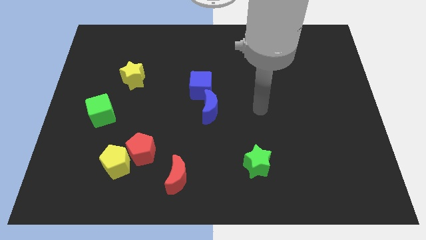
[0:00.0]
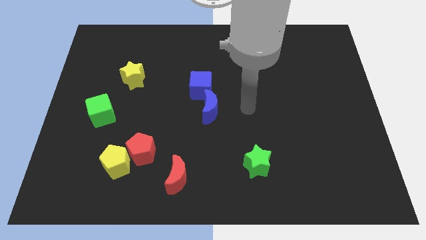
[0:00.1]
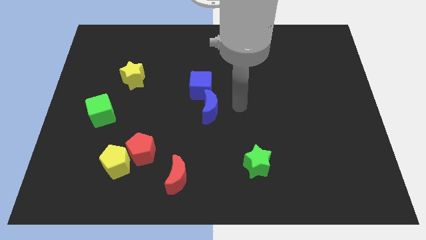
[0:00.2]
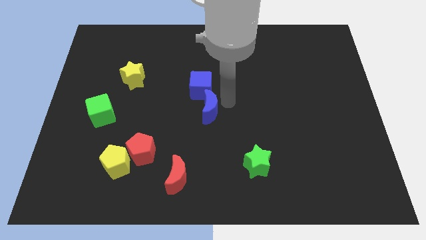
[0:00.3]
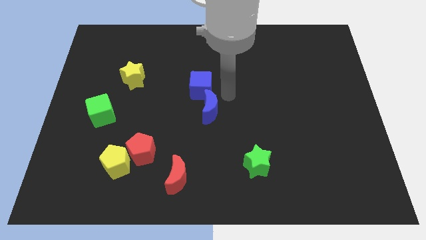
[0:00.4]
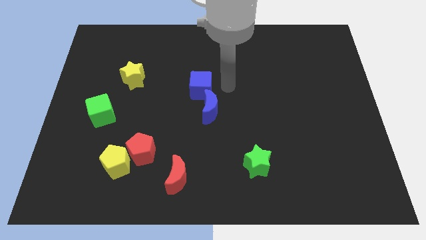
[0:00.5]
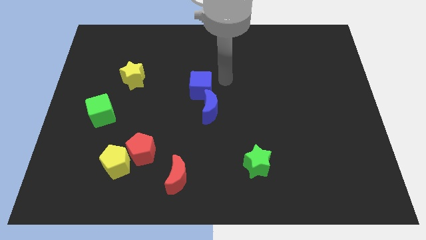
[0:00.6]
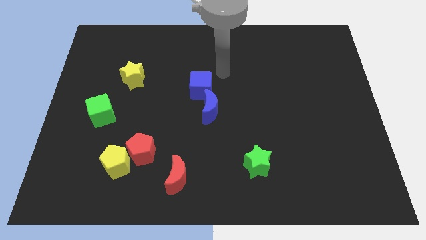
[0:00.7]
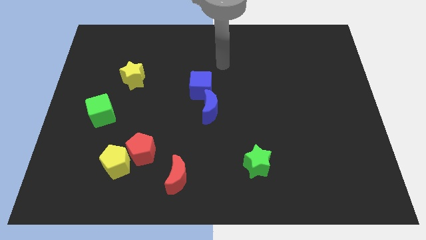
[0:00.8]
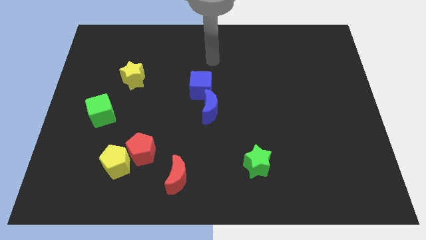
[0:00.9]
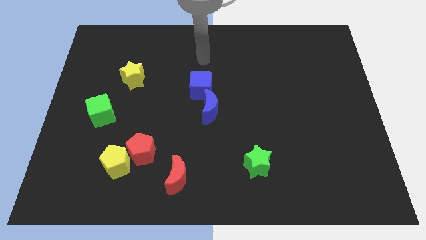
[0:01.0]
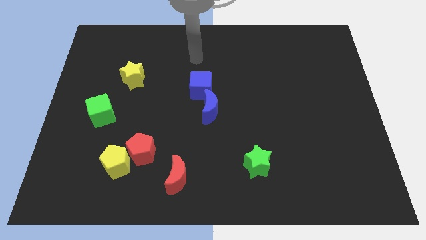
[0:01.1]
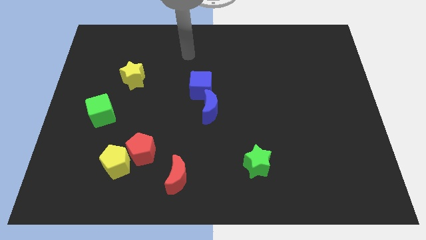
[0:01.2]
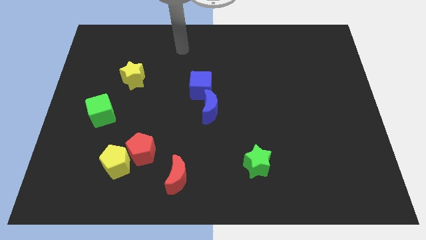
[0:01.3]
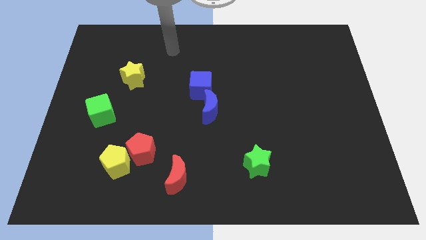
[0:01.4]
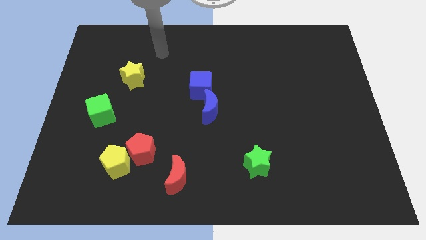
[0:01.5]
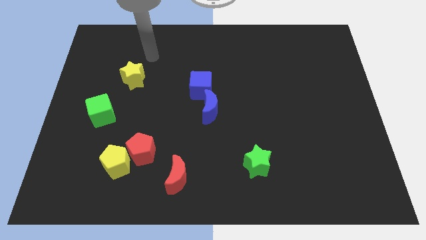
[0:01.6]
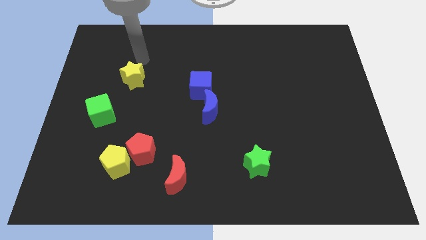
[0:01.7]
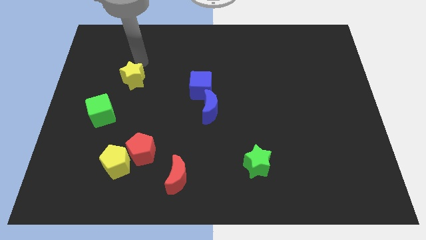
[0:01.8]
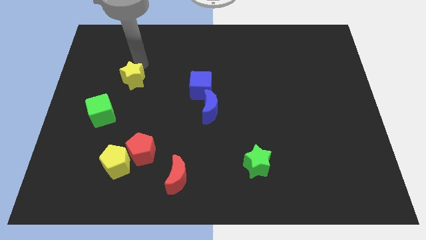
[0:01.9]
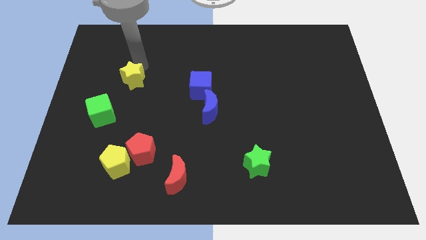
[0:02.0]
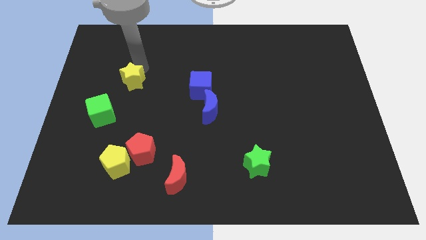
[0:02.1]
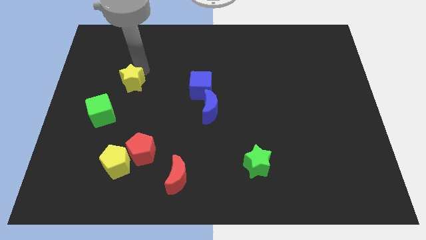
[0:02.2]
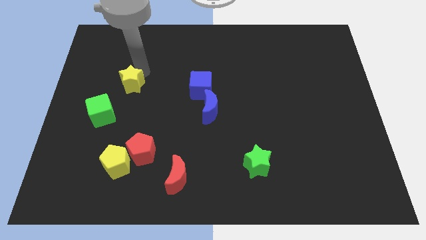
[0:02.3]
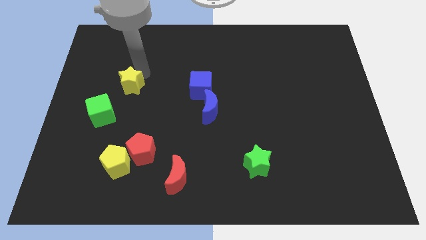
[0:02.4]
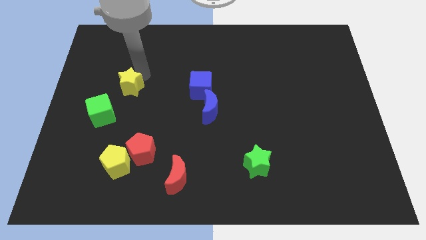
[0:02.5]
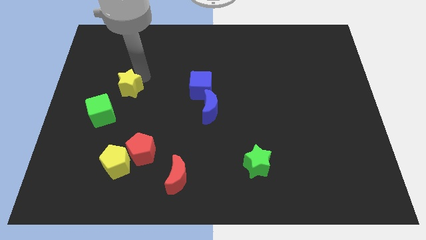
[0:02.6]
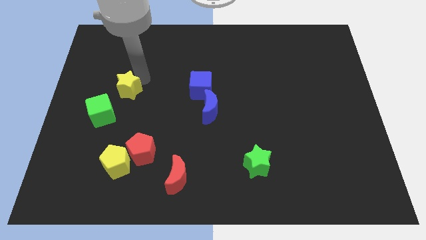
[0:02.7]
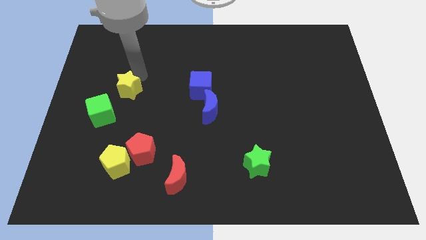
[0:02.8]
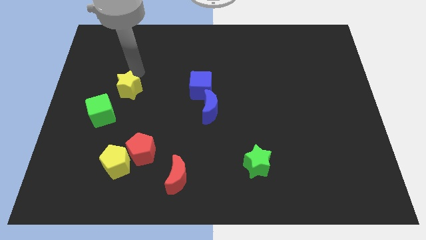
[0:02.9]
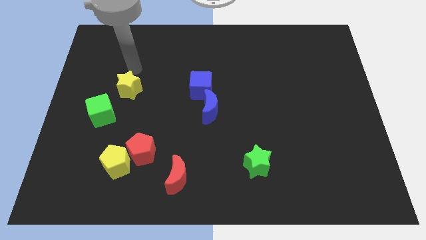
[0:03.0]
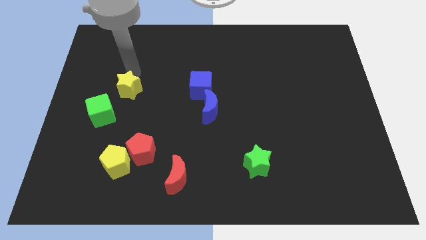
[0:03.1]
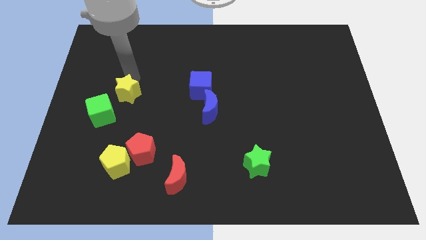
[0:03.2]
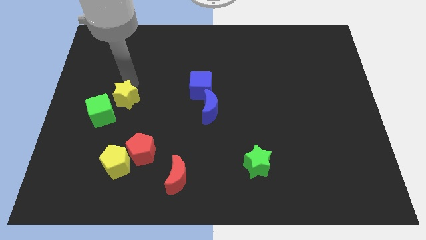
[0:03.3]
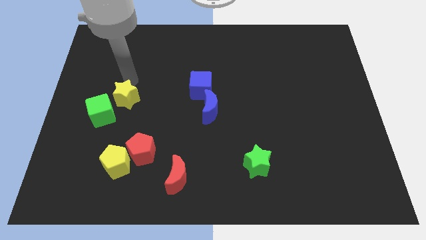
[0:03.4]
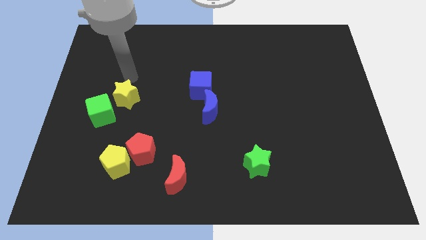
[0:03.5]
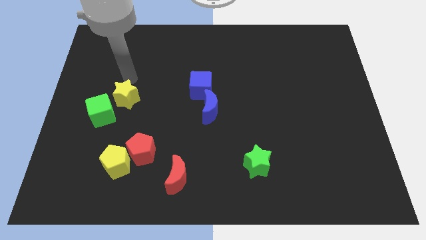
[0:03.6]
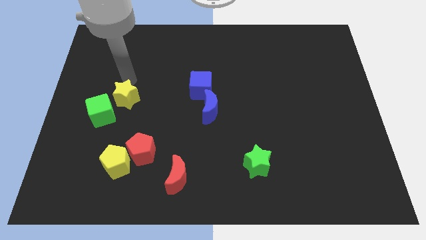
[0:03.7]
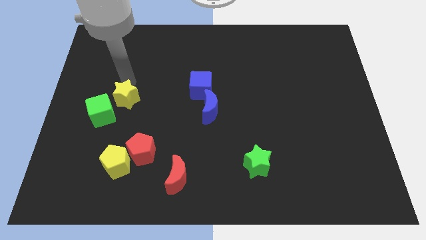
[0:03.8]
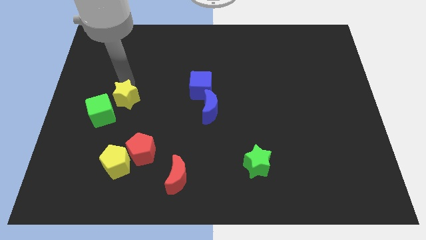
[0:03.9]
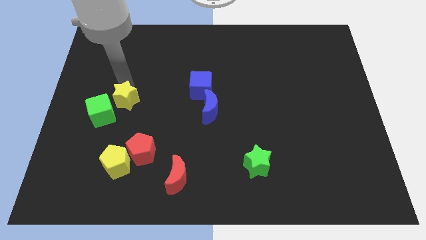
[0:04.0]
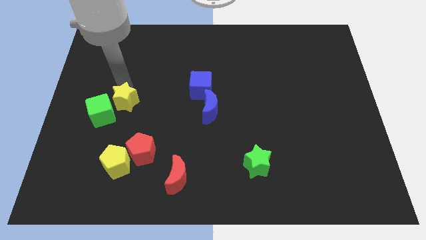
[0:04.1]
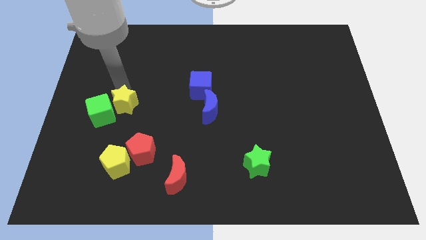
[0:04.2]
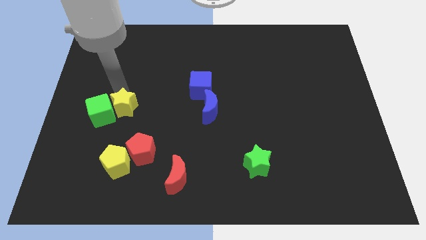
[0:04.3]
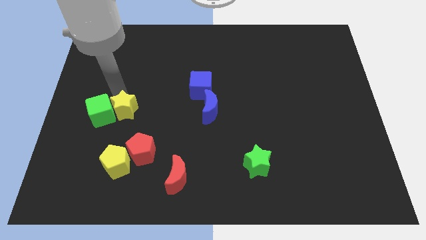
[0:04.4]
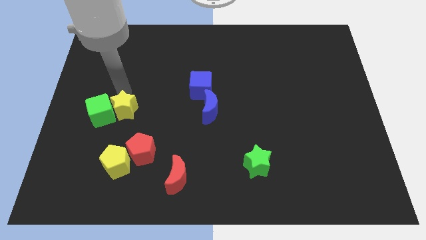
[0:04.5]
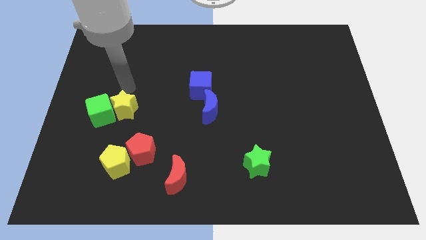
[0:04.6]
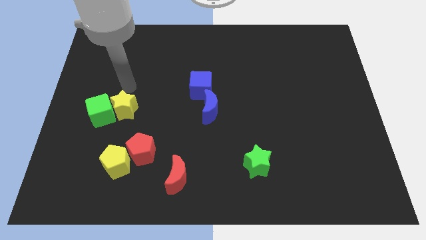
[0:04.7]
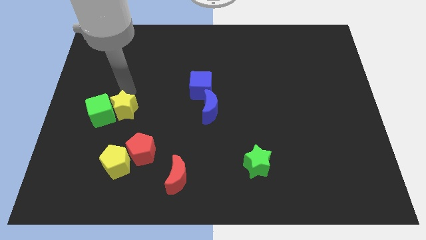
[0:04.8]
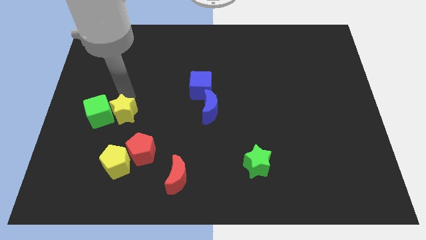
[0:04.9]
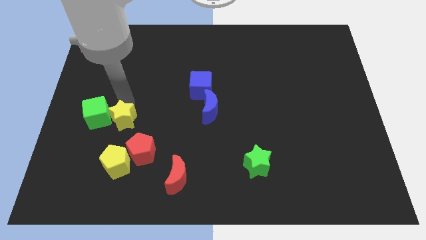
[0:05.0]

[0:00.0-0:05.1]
move the yellow star diagonally up and to the left of the red pentagon

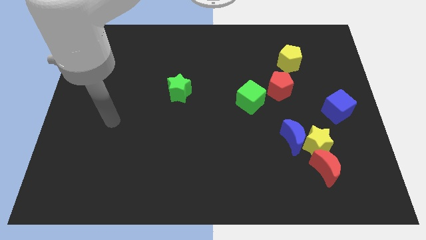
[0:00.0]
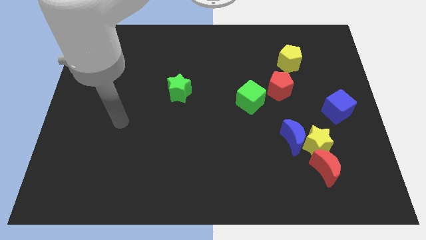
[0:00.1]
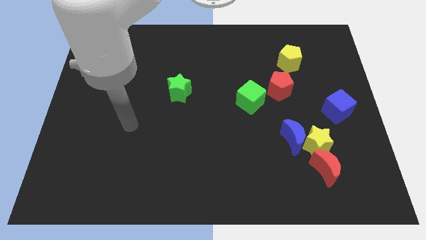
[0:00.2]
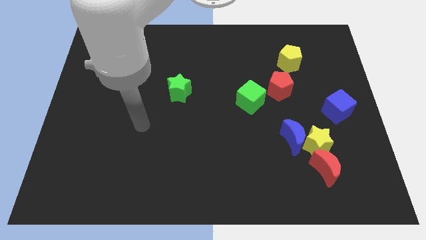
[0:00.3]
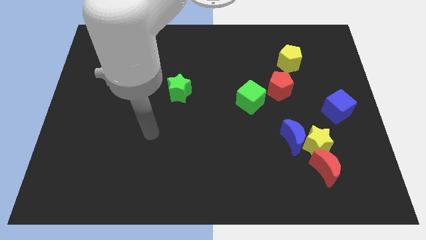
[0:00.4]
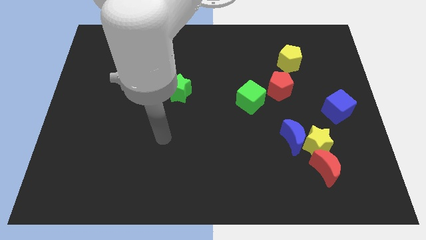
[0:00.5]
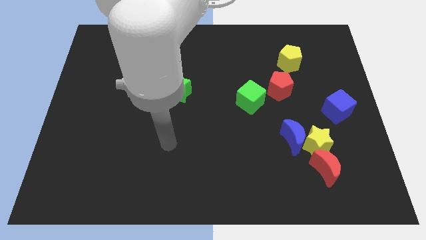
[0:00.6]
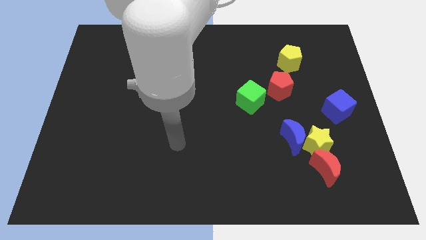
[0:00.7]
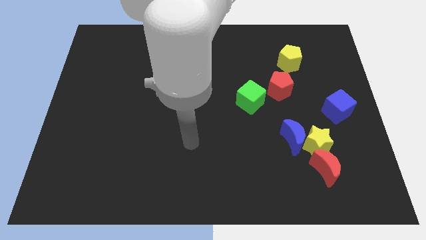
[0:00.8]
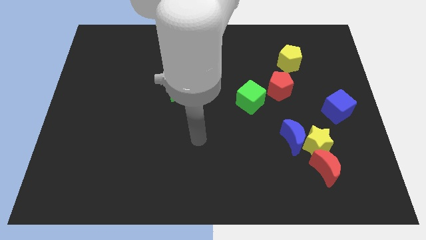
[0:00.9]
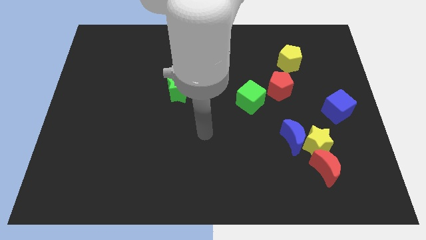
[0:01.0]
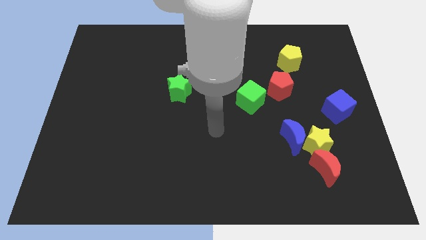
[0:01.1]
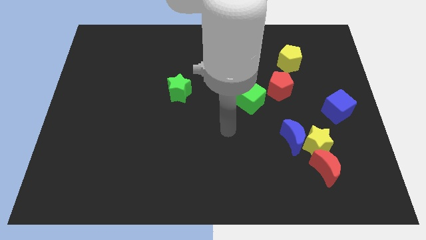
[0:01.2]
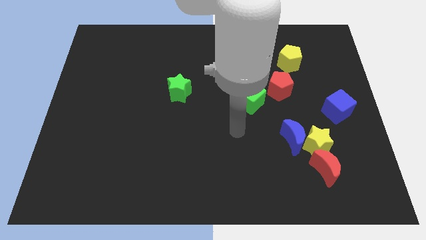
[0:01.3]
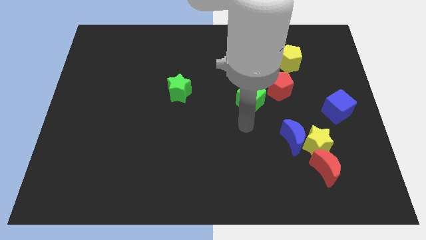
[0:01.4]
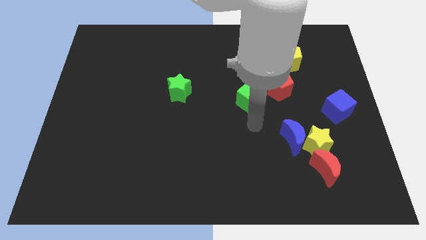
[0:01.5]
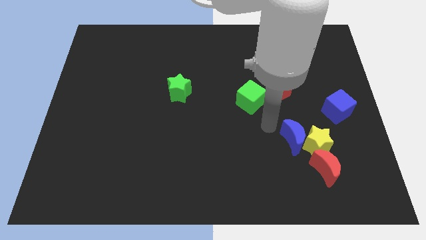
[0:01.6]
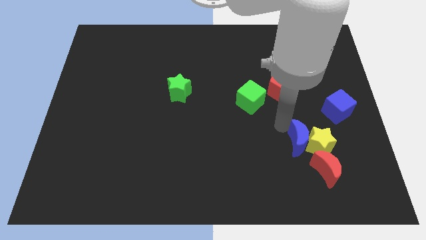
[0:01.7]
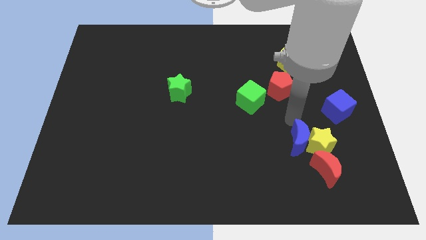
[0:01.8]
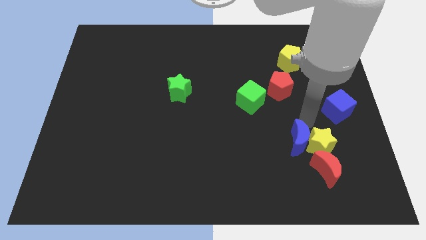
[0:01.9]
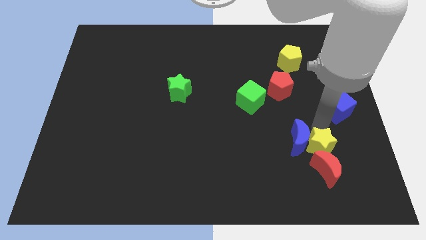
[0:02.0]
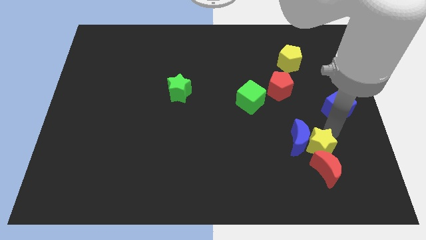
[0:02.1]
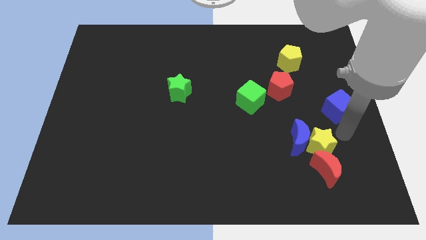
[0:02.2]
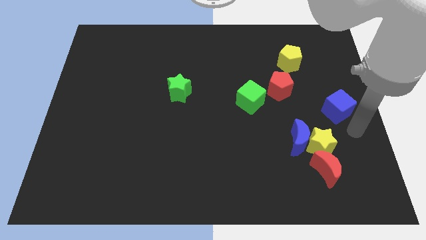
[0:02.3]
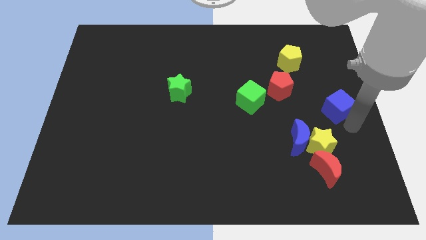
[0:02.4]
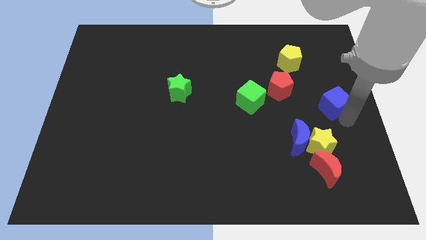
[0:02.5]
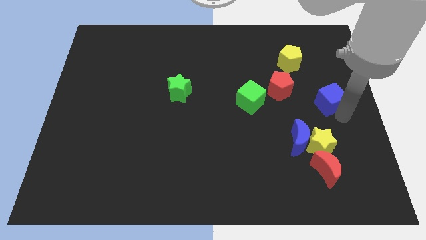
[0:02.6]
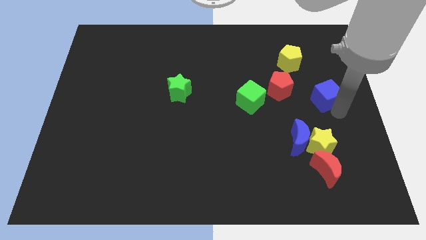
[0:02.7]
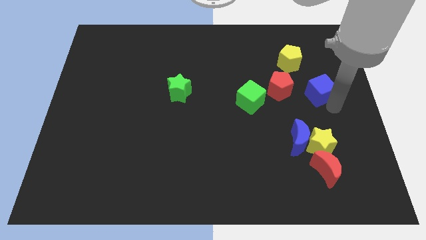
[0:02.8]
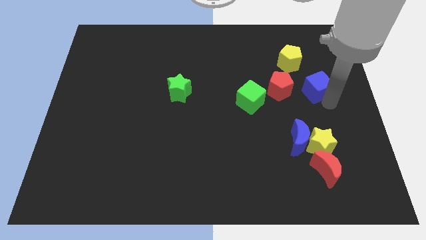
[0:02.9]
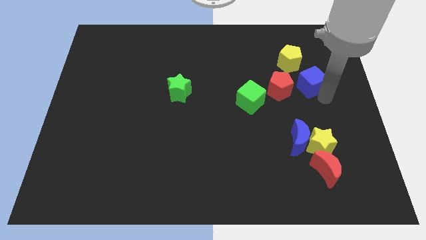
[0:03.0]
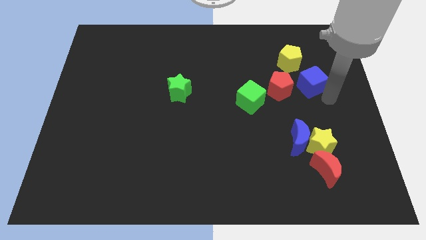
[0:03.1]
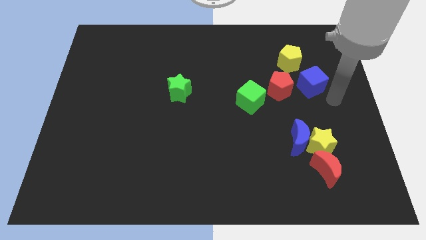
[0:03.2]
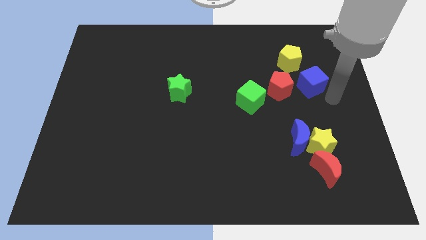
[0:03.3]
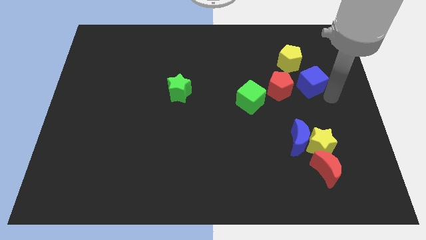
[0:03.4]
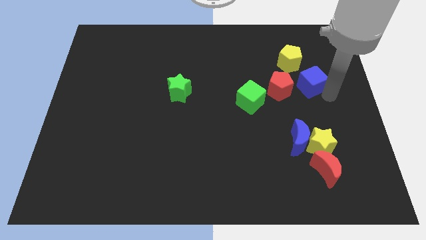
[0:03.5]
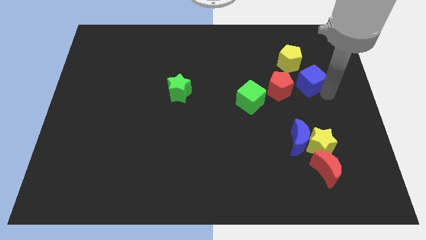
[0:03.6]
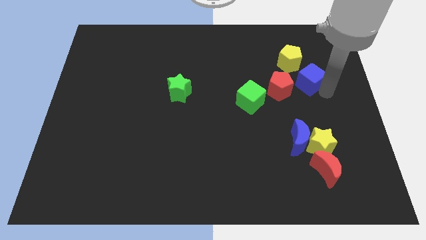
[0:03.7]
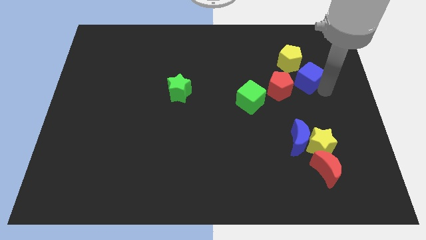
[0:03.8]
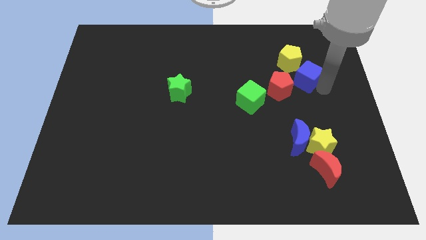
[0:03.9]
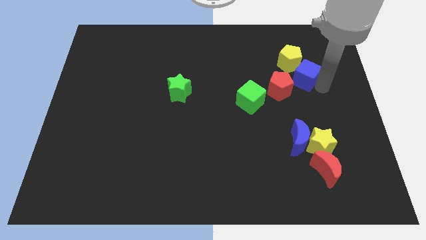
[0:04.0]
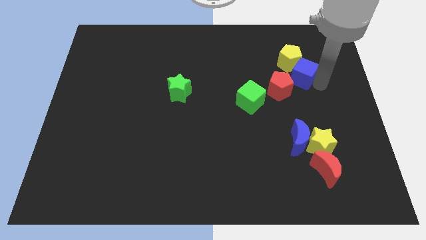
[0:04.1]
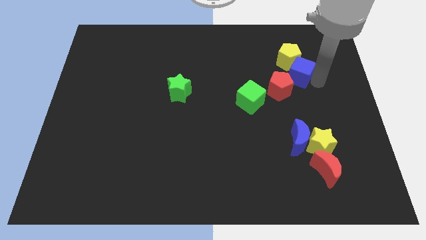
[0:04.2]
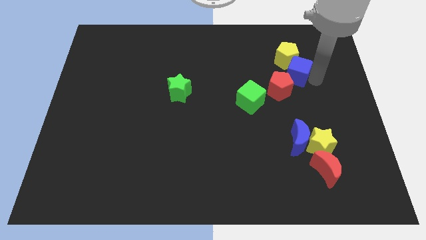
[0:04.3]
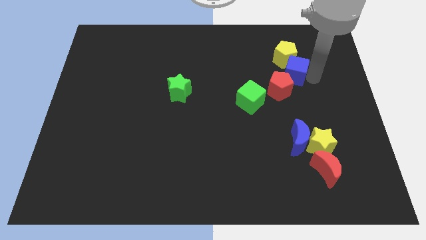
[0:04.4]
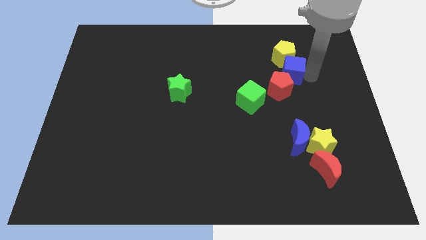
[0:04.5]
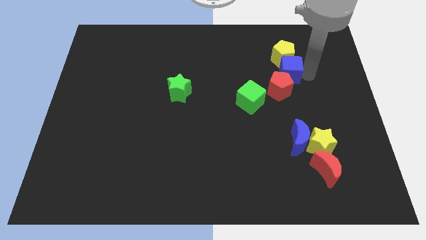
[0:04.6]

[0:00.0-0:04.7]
push the blue cube to the bottom left of the yellow pentagon
